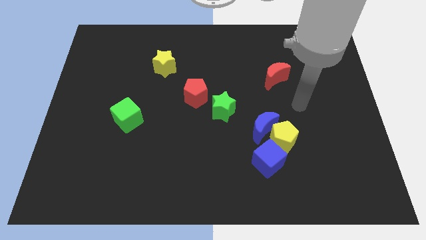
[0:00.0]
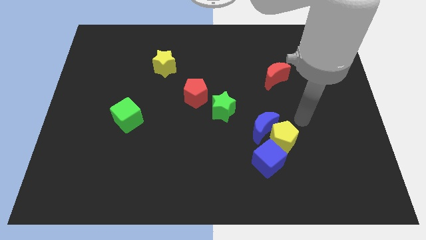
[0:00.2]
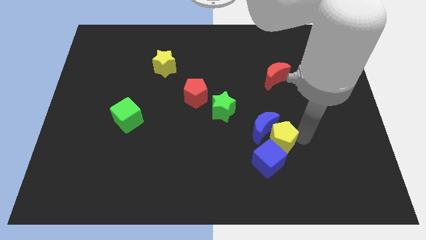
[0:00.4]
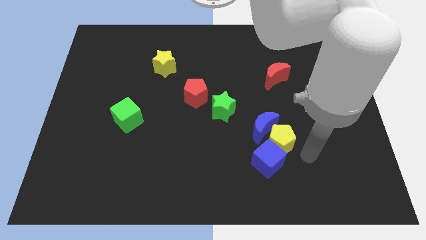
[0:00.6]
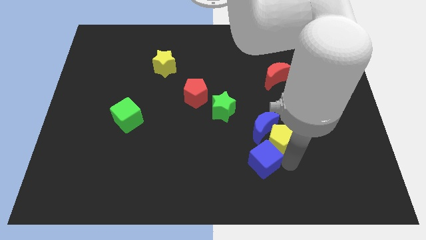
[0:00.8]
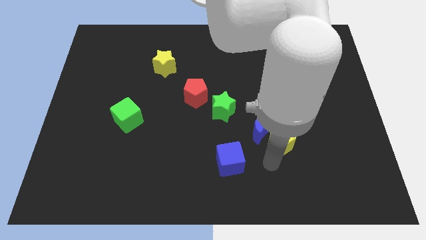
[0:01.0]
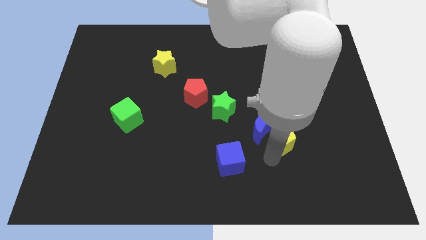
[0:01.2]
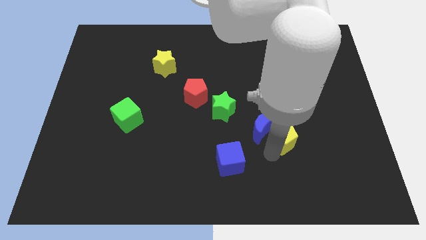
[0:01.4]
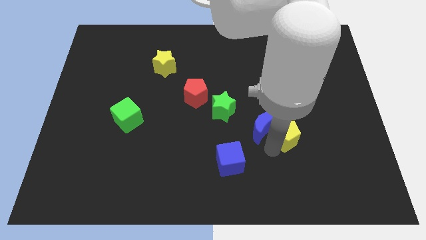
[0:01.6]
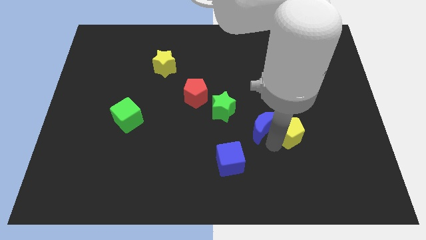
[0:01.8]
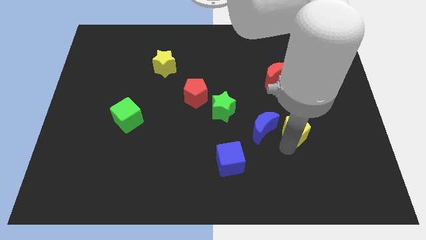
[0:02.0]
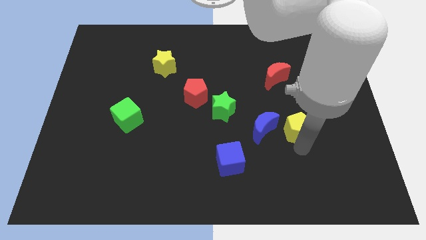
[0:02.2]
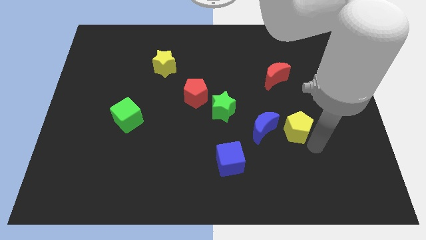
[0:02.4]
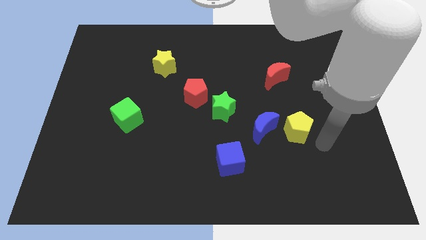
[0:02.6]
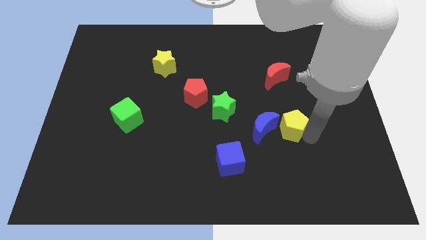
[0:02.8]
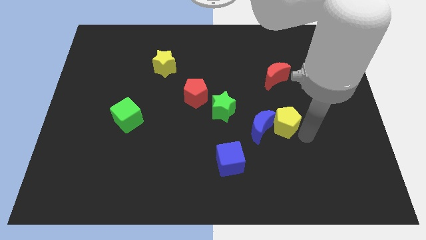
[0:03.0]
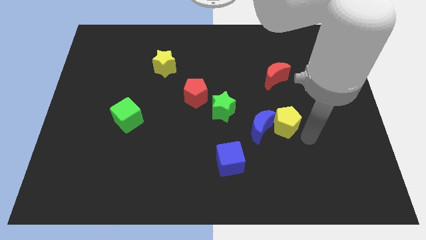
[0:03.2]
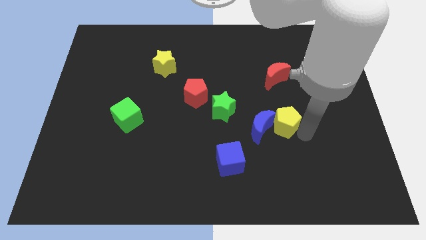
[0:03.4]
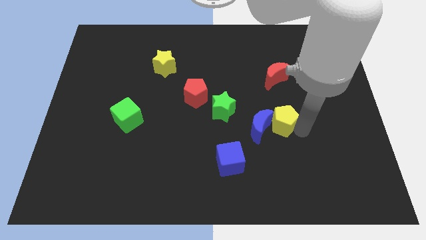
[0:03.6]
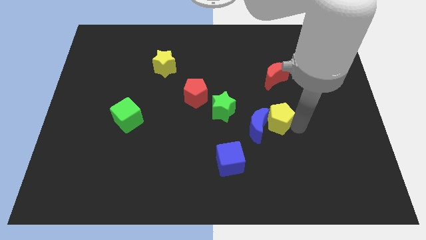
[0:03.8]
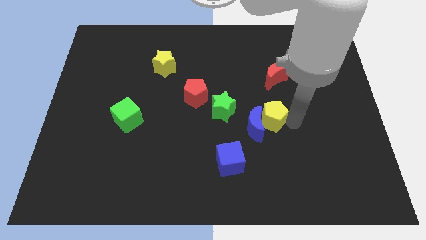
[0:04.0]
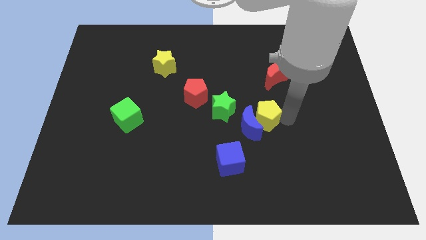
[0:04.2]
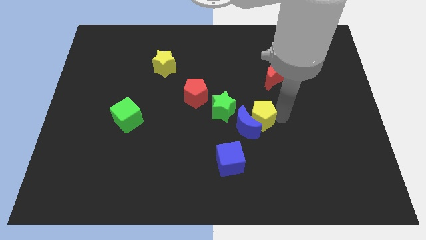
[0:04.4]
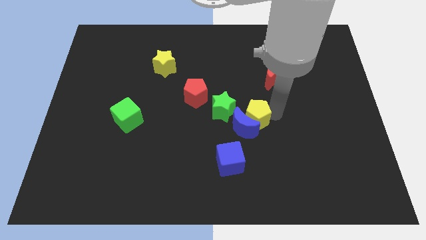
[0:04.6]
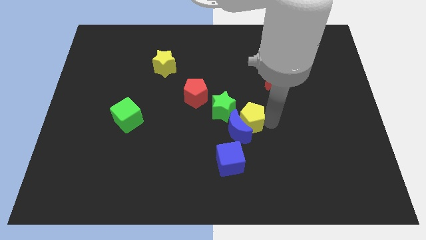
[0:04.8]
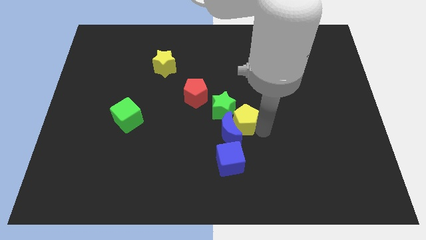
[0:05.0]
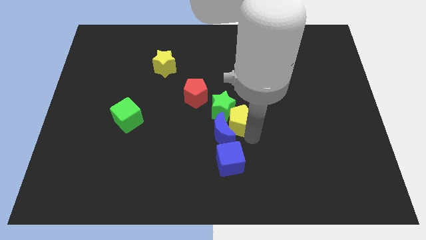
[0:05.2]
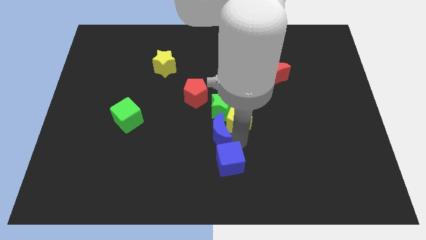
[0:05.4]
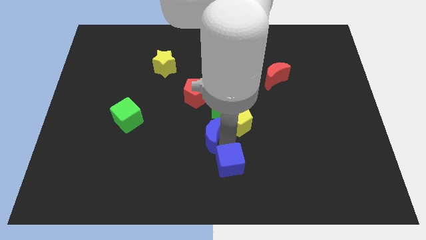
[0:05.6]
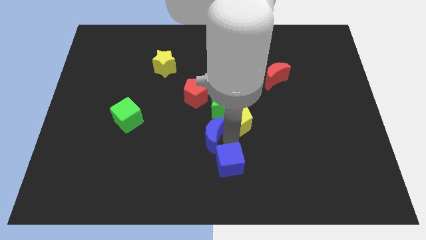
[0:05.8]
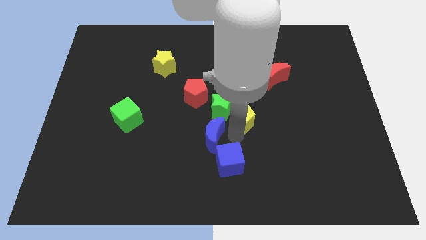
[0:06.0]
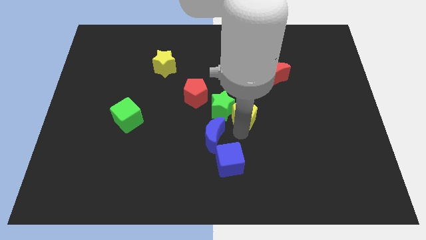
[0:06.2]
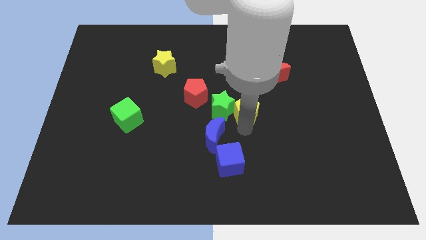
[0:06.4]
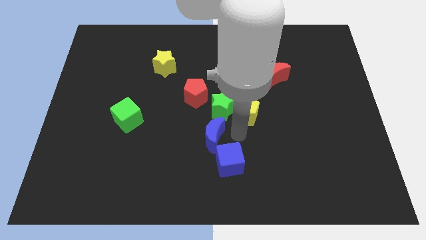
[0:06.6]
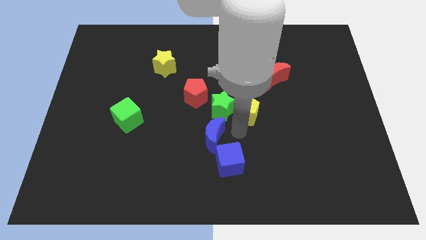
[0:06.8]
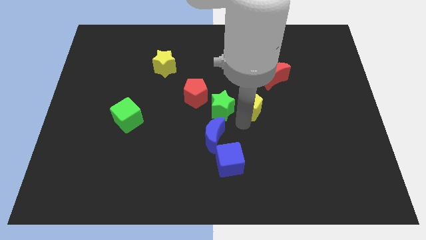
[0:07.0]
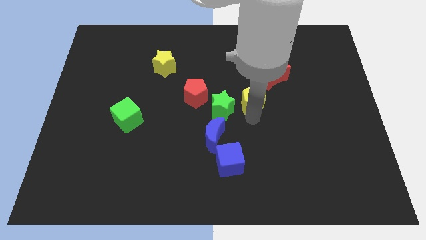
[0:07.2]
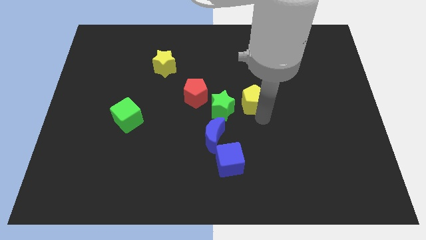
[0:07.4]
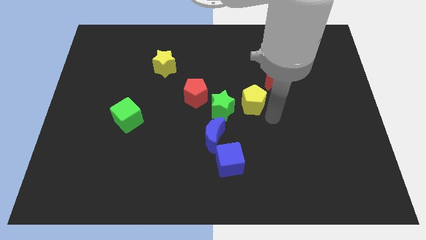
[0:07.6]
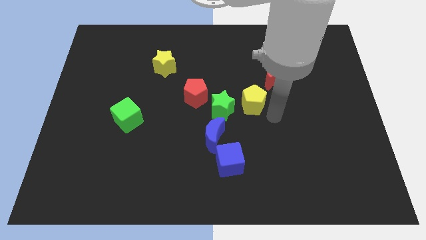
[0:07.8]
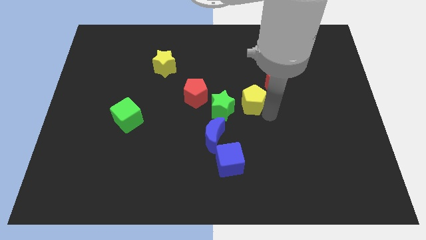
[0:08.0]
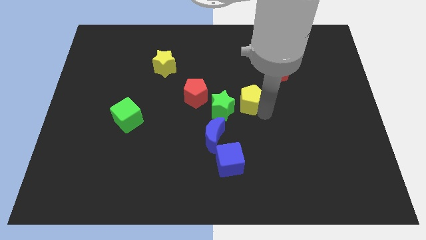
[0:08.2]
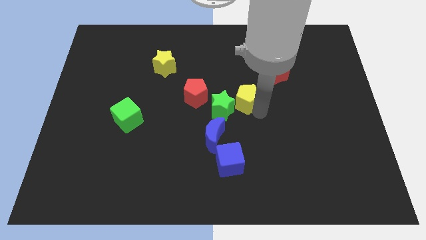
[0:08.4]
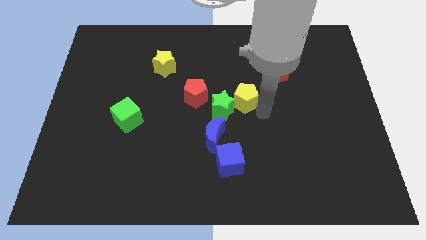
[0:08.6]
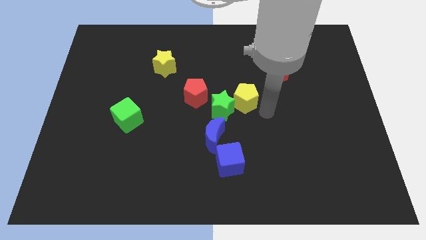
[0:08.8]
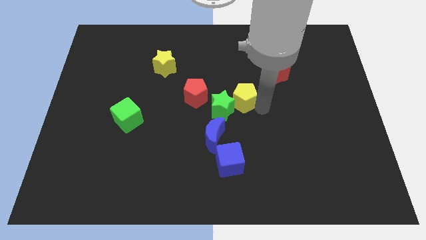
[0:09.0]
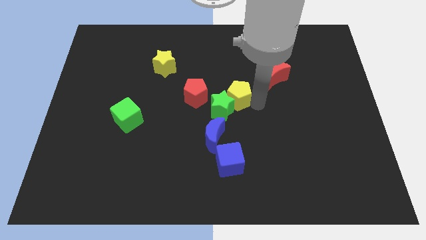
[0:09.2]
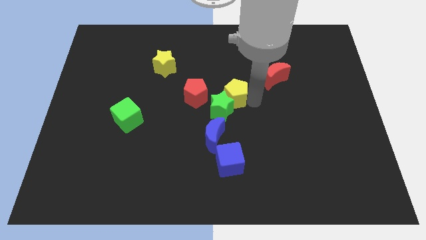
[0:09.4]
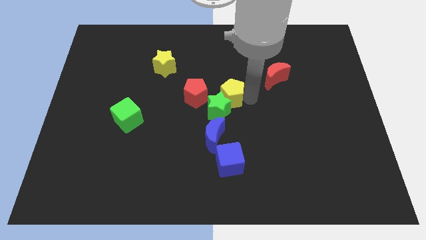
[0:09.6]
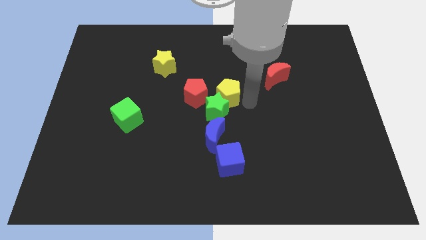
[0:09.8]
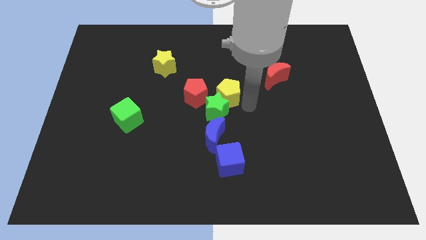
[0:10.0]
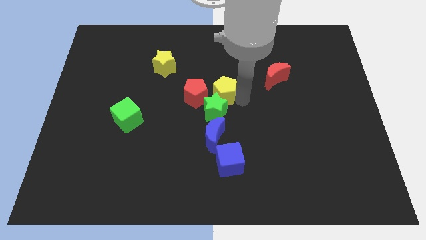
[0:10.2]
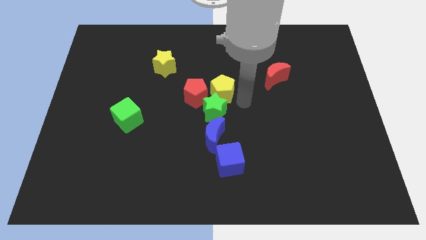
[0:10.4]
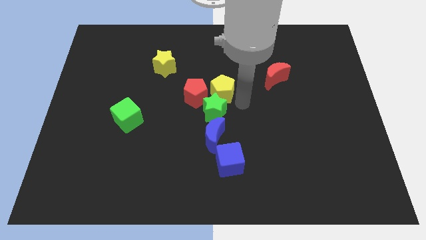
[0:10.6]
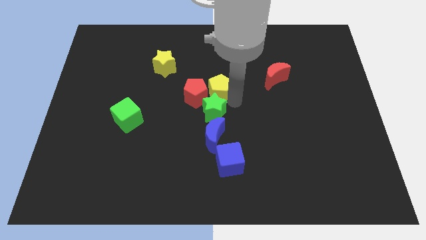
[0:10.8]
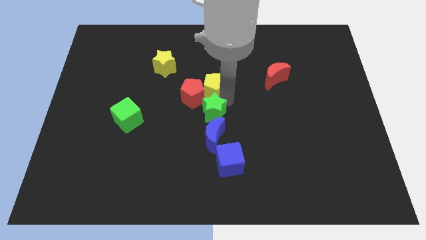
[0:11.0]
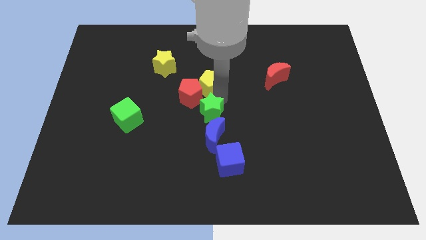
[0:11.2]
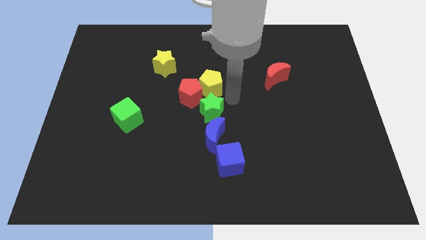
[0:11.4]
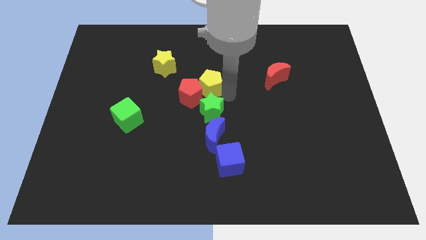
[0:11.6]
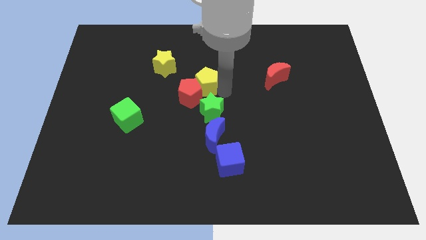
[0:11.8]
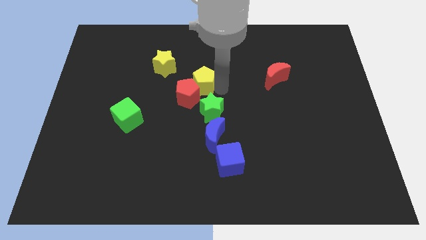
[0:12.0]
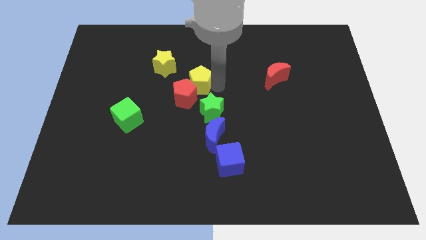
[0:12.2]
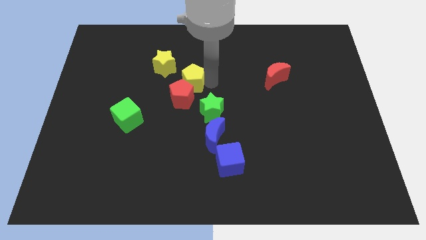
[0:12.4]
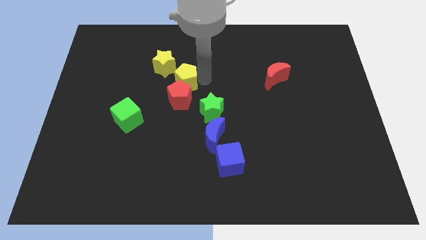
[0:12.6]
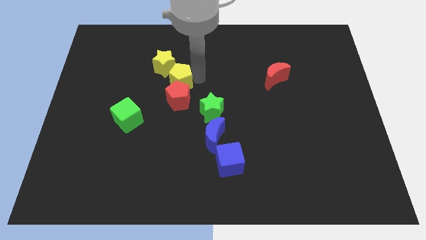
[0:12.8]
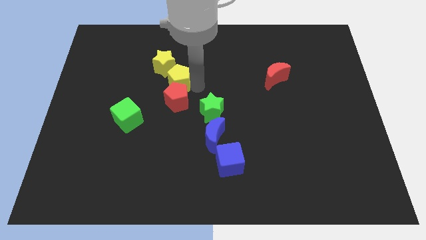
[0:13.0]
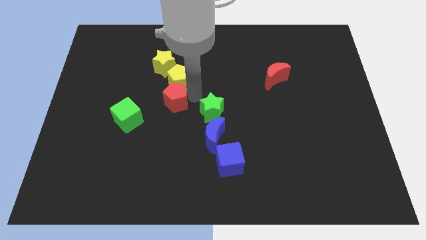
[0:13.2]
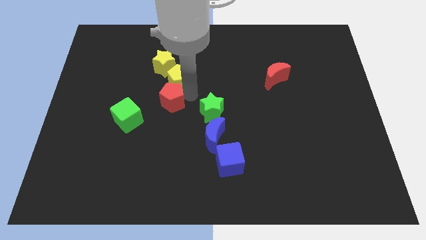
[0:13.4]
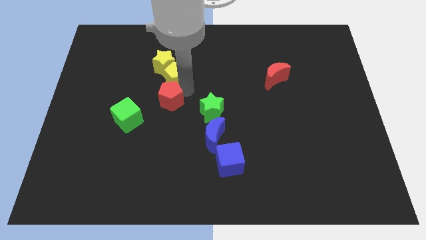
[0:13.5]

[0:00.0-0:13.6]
put the yellow pentagon towards the yellow star
